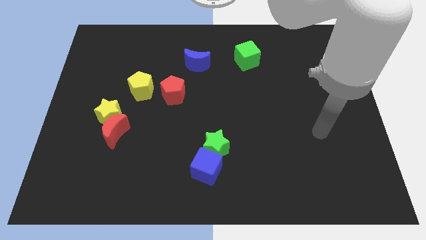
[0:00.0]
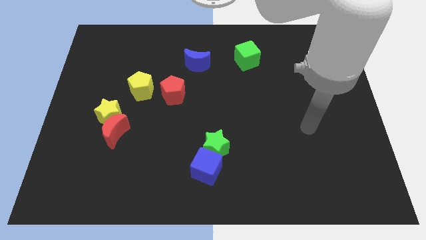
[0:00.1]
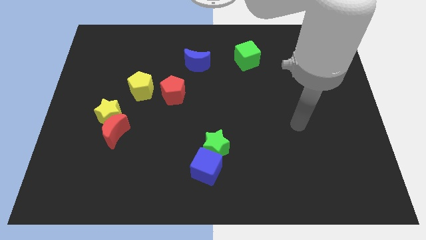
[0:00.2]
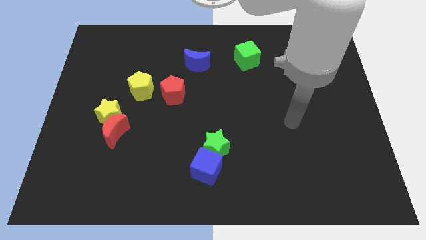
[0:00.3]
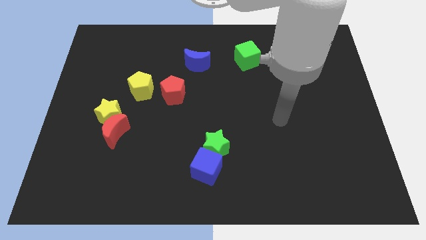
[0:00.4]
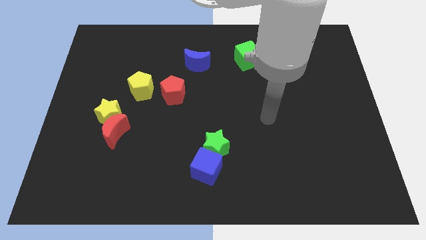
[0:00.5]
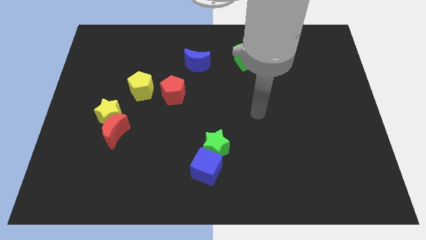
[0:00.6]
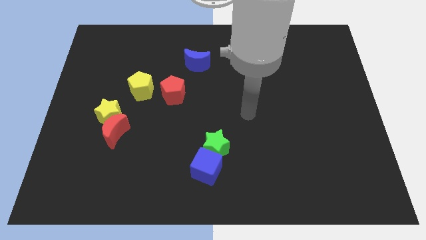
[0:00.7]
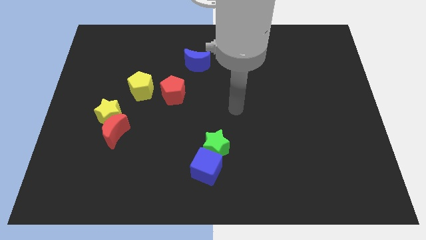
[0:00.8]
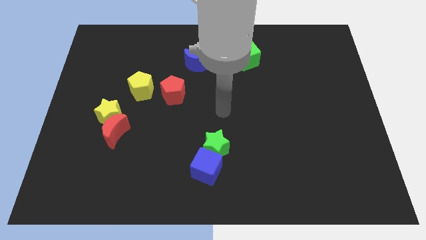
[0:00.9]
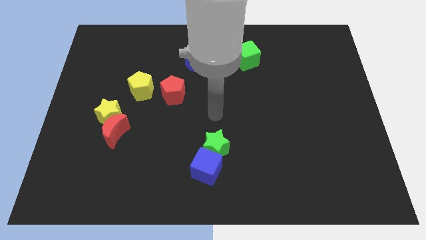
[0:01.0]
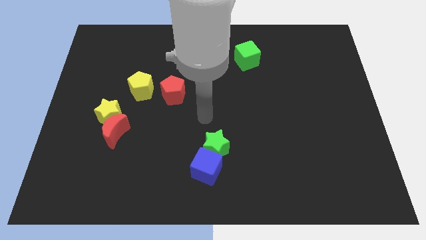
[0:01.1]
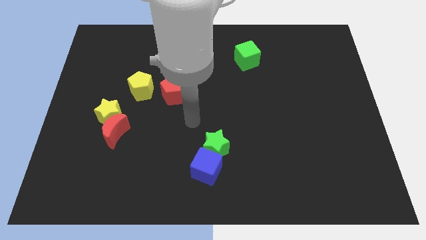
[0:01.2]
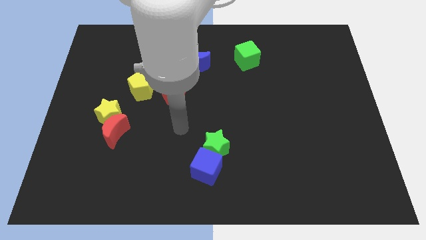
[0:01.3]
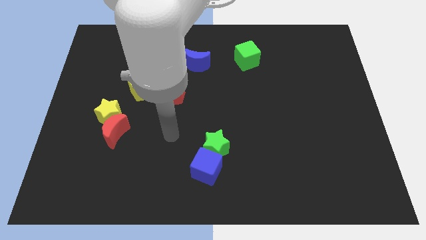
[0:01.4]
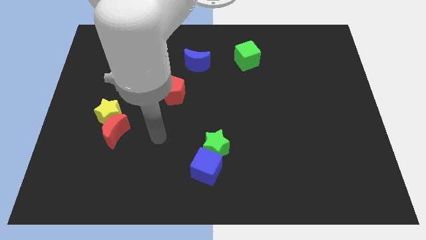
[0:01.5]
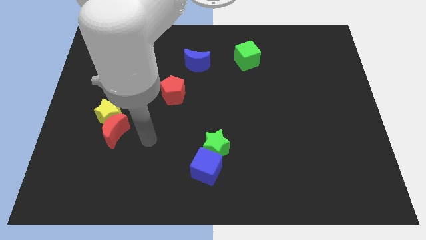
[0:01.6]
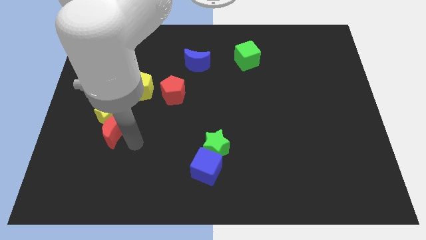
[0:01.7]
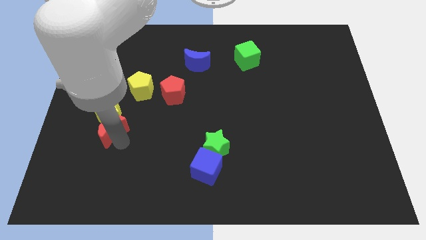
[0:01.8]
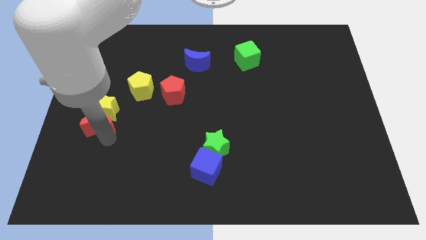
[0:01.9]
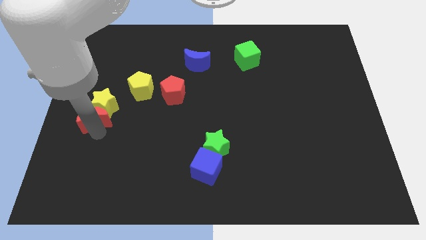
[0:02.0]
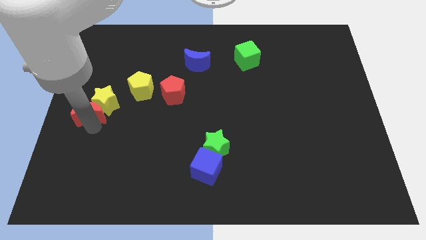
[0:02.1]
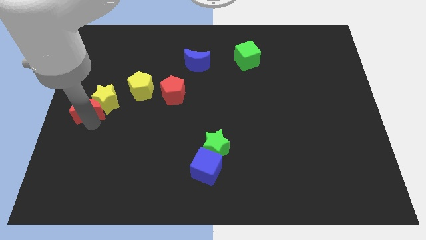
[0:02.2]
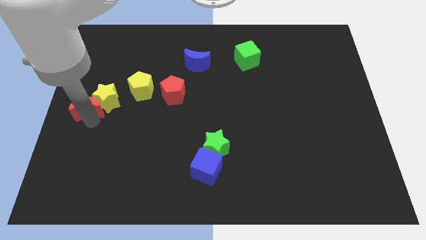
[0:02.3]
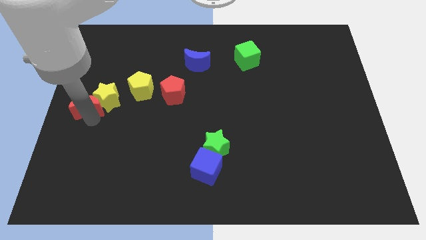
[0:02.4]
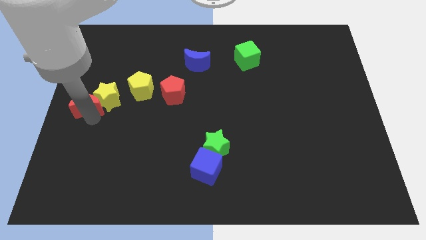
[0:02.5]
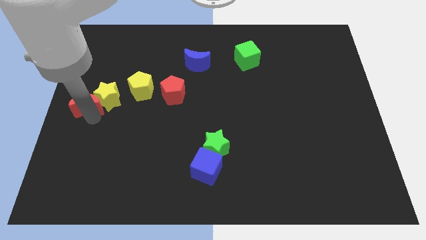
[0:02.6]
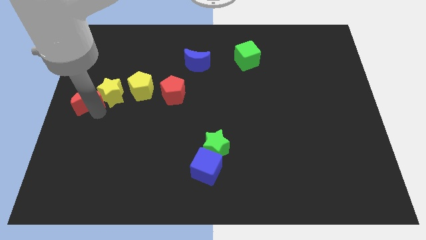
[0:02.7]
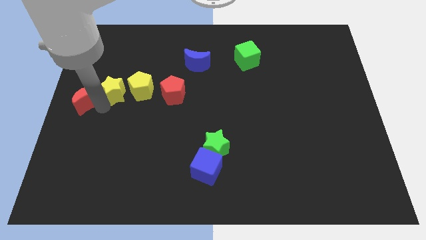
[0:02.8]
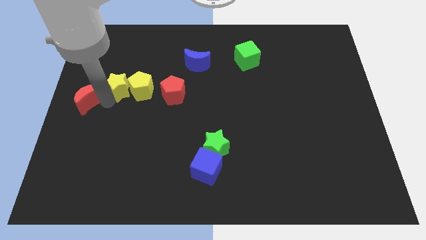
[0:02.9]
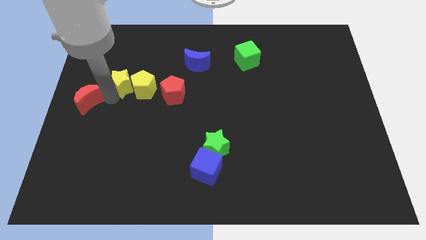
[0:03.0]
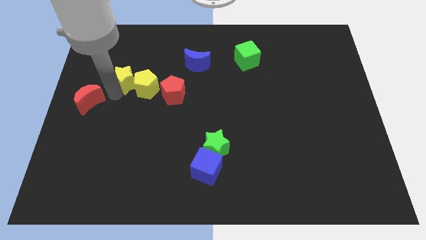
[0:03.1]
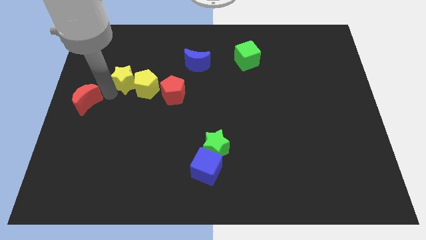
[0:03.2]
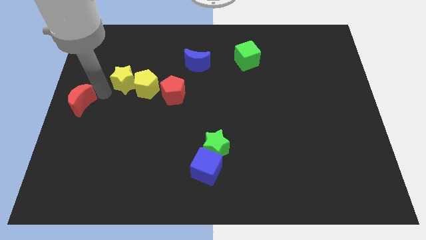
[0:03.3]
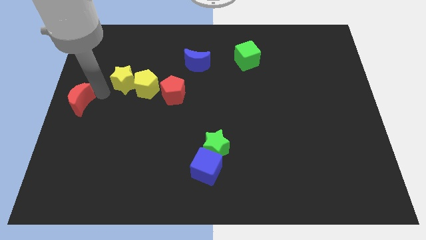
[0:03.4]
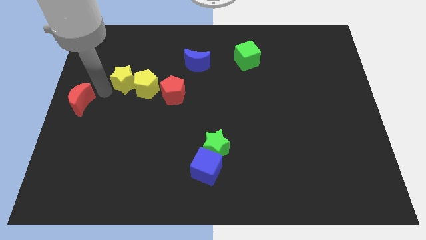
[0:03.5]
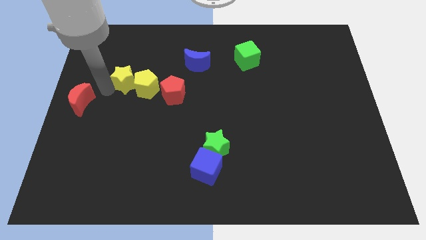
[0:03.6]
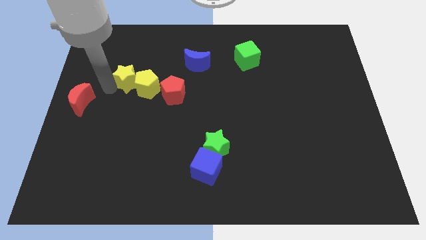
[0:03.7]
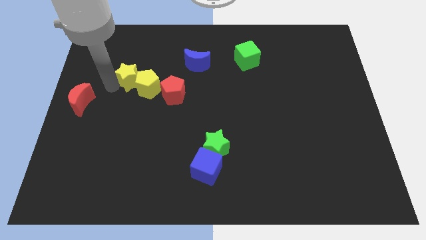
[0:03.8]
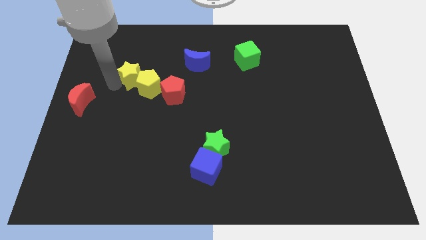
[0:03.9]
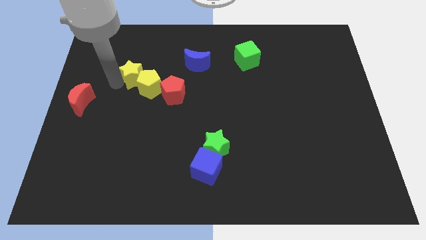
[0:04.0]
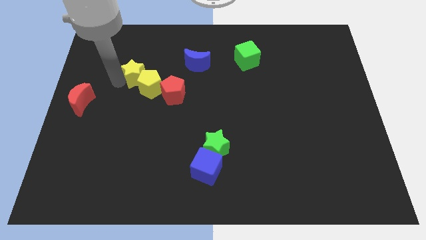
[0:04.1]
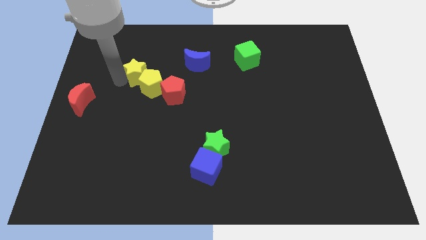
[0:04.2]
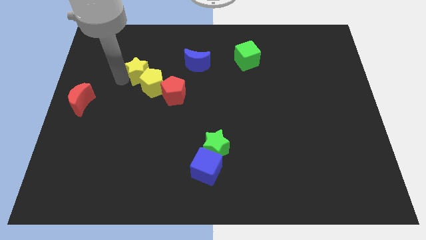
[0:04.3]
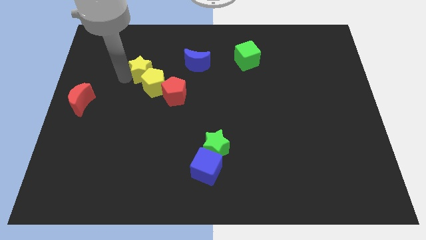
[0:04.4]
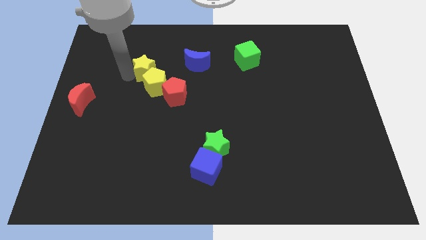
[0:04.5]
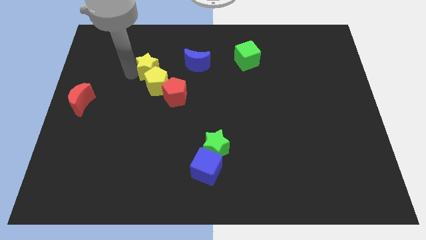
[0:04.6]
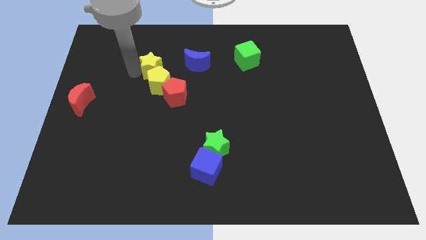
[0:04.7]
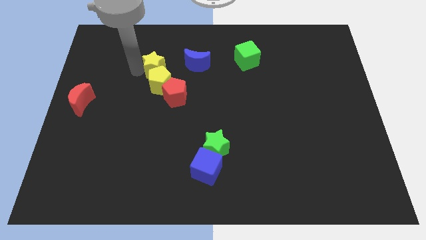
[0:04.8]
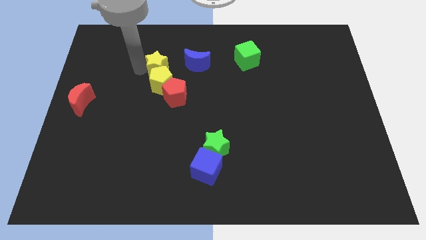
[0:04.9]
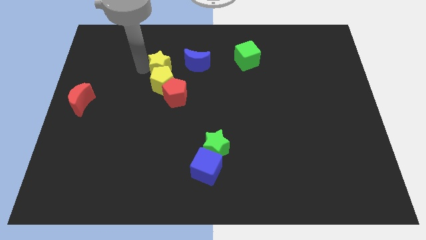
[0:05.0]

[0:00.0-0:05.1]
move the yellow star to the top side of the red pentagon

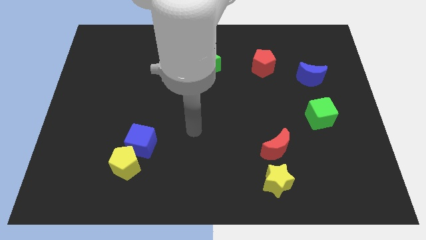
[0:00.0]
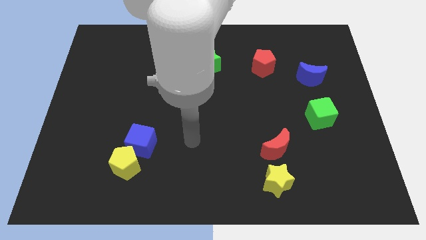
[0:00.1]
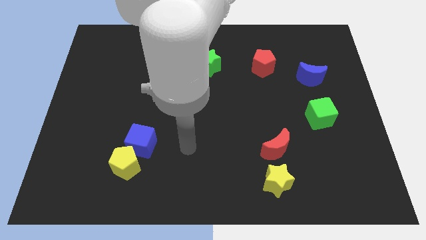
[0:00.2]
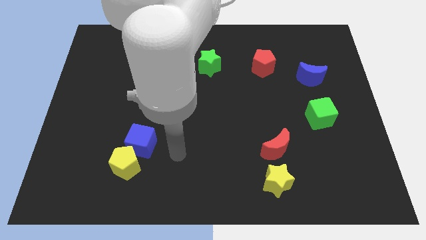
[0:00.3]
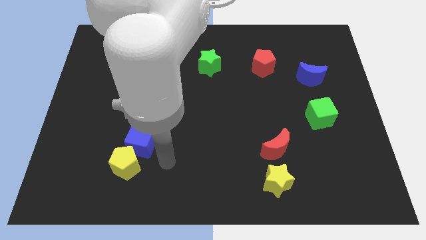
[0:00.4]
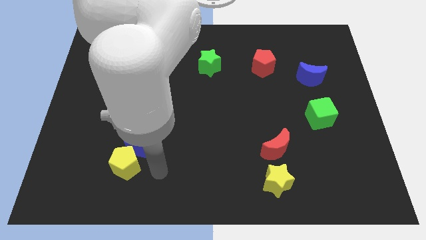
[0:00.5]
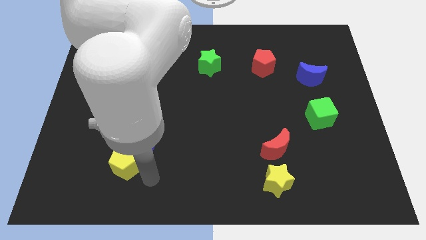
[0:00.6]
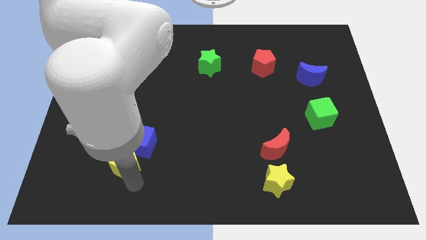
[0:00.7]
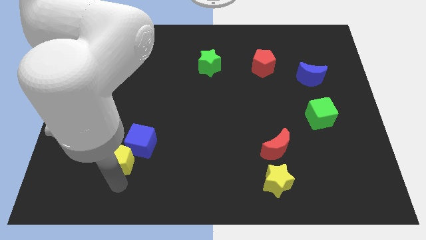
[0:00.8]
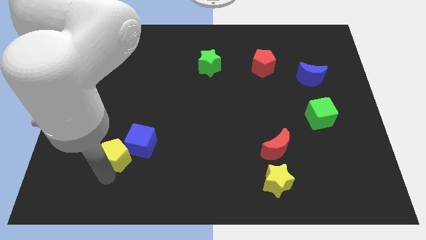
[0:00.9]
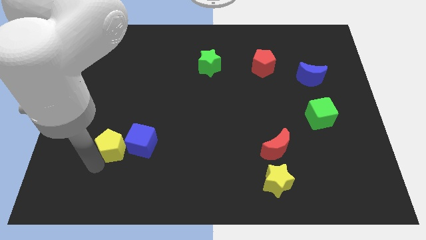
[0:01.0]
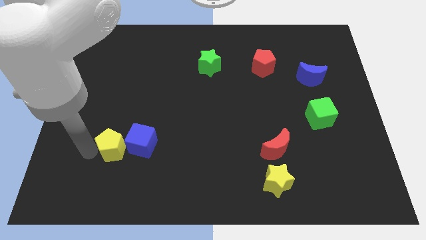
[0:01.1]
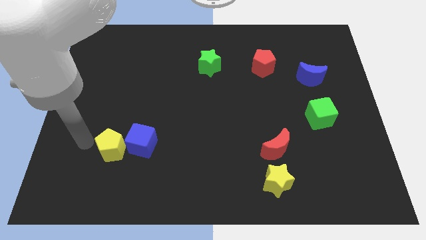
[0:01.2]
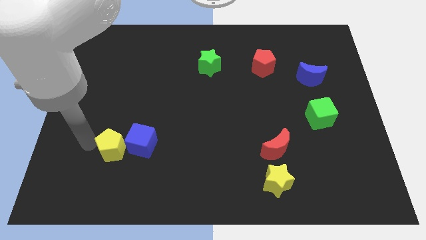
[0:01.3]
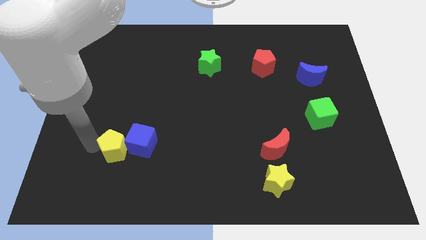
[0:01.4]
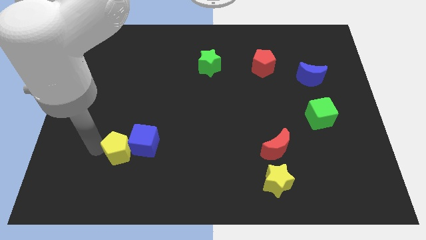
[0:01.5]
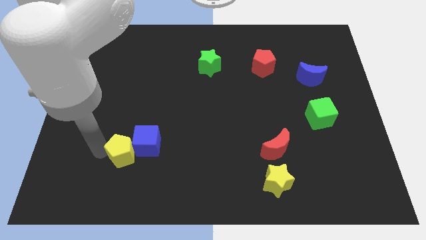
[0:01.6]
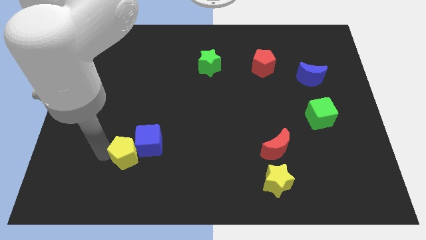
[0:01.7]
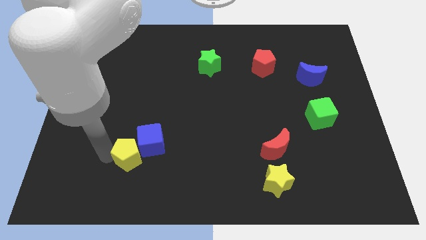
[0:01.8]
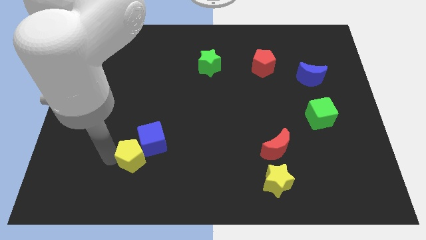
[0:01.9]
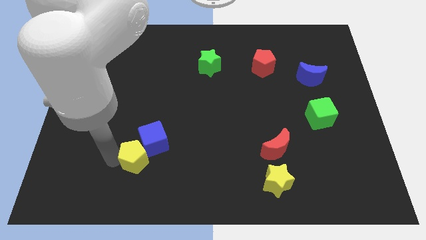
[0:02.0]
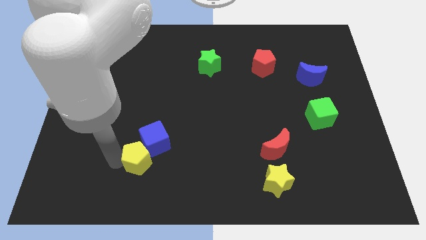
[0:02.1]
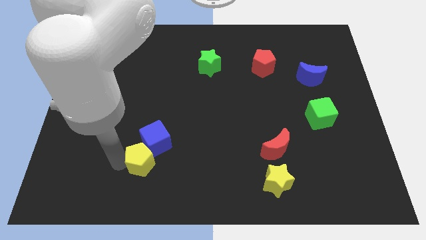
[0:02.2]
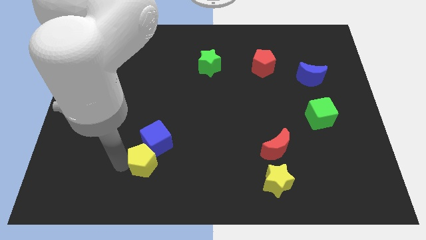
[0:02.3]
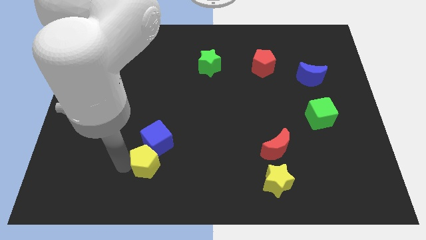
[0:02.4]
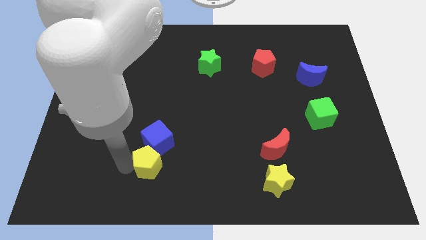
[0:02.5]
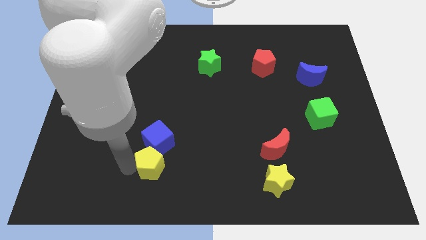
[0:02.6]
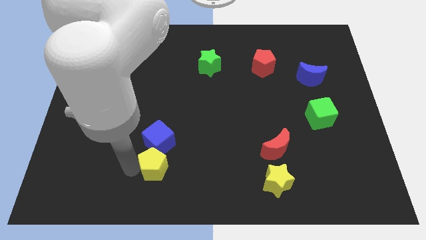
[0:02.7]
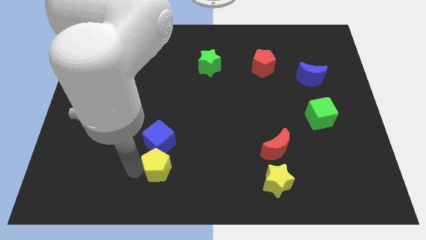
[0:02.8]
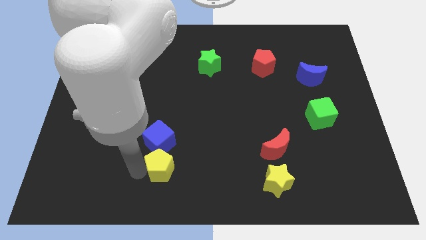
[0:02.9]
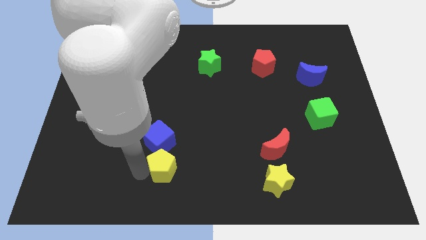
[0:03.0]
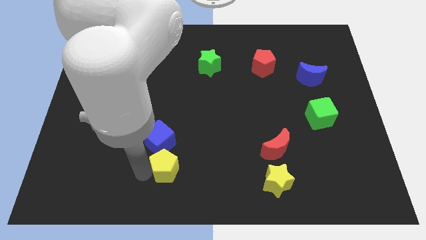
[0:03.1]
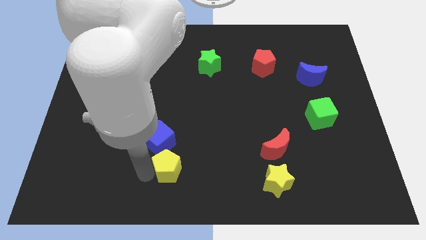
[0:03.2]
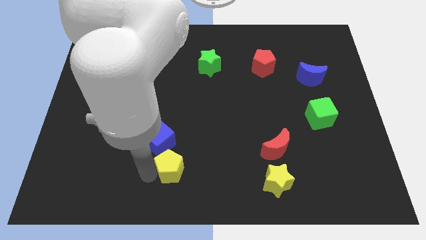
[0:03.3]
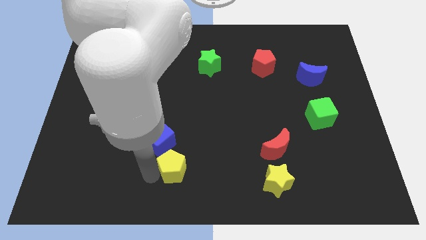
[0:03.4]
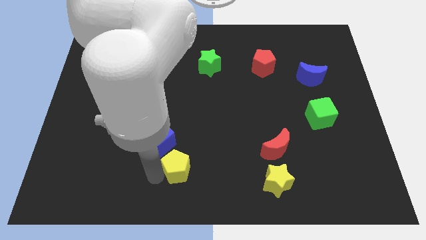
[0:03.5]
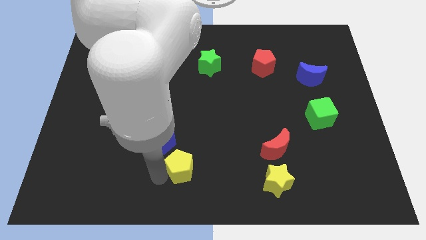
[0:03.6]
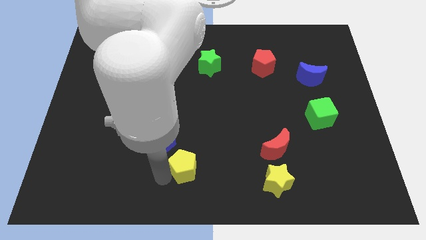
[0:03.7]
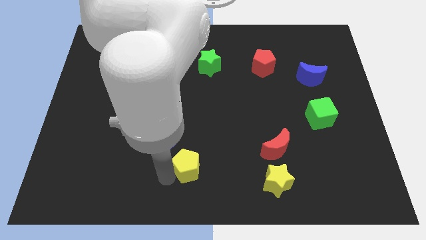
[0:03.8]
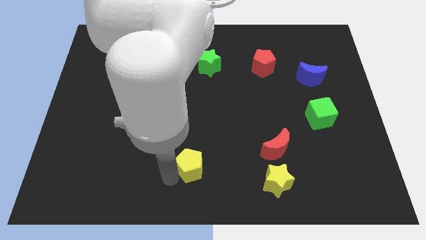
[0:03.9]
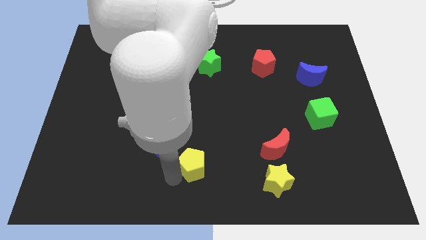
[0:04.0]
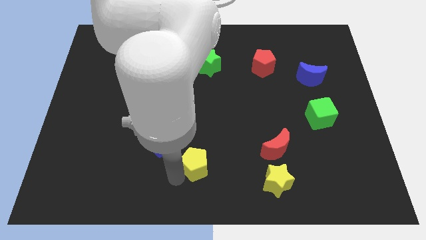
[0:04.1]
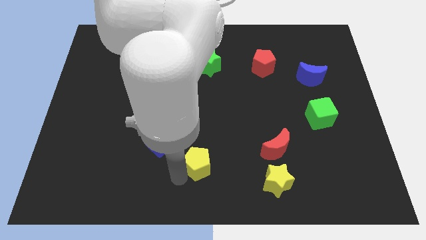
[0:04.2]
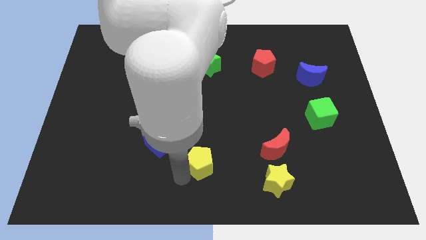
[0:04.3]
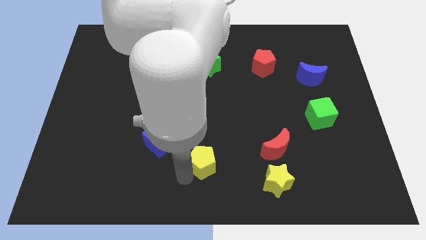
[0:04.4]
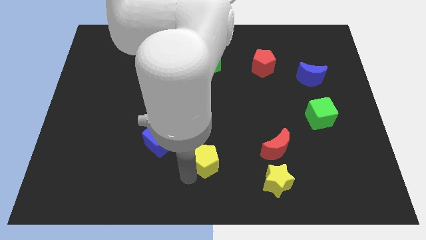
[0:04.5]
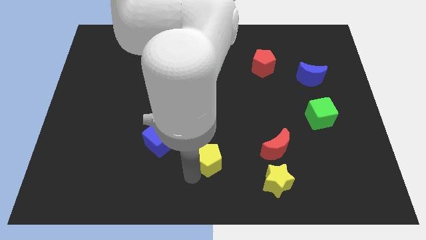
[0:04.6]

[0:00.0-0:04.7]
move the yellow pentagon left of the red moon
